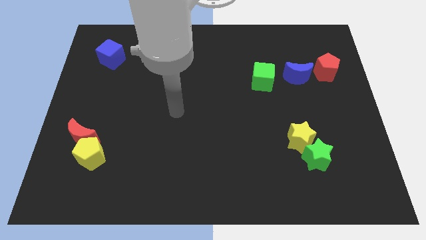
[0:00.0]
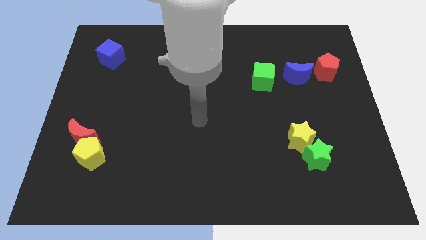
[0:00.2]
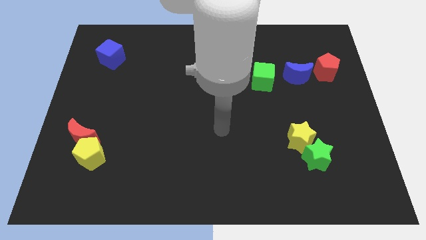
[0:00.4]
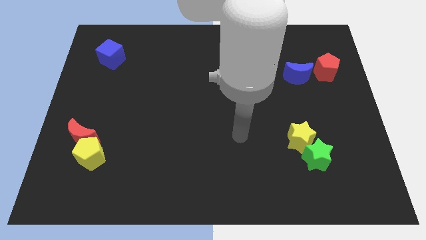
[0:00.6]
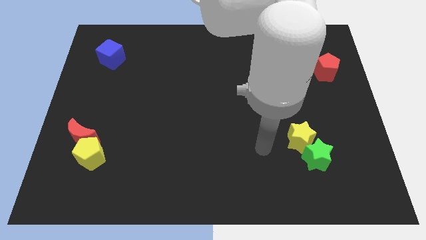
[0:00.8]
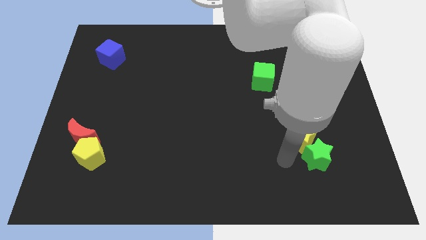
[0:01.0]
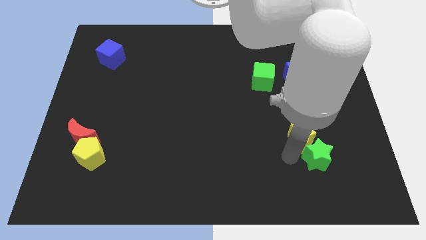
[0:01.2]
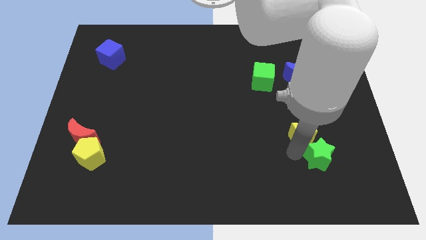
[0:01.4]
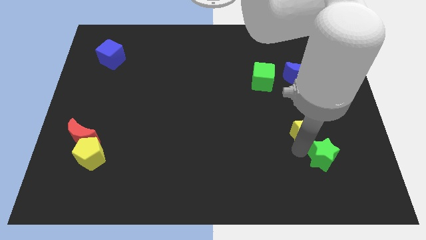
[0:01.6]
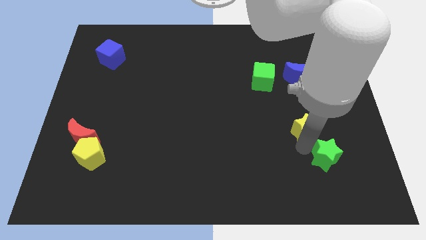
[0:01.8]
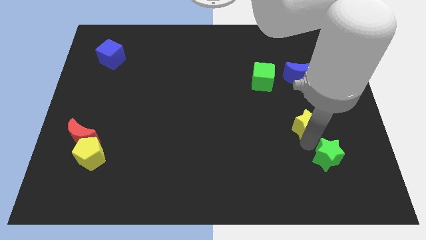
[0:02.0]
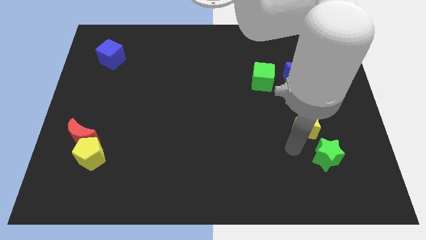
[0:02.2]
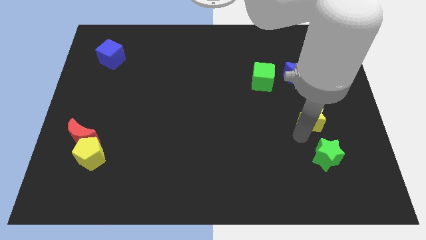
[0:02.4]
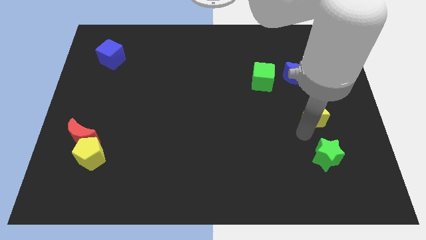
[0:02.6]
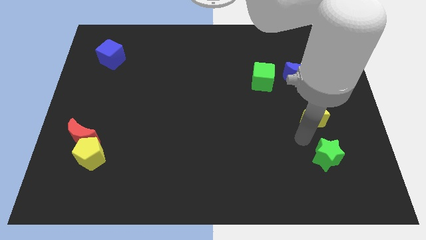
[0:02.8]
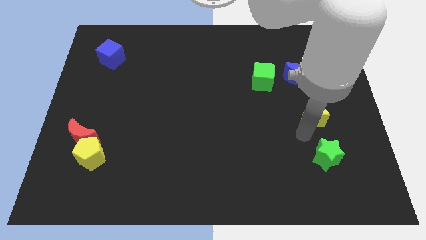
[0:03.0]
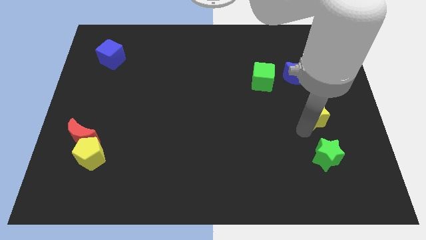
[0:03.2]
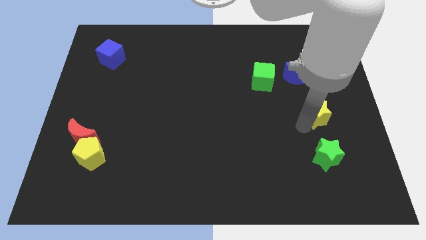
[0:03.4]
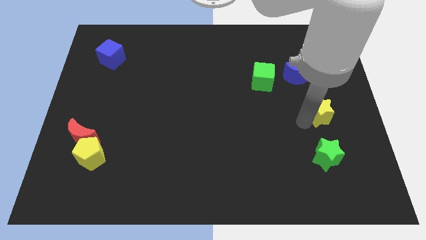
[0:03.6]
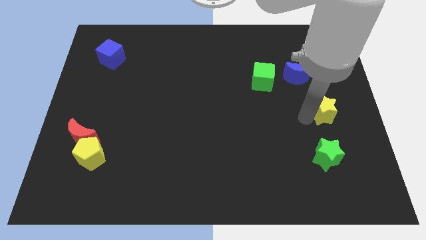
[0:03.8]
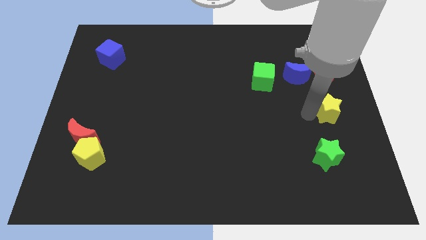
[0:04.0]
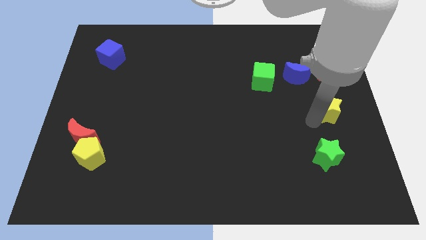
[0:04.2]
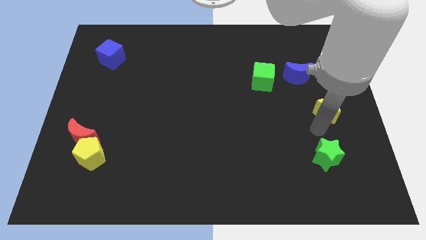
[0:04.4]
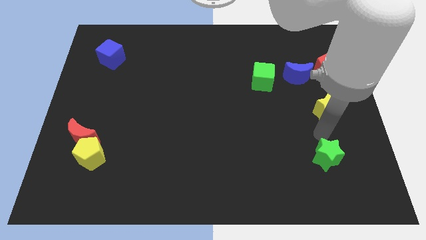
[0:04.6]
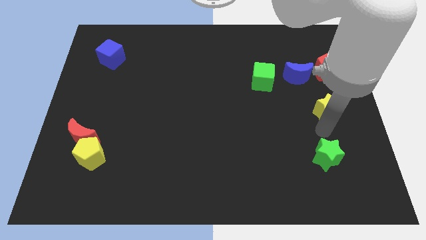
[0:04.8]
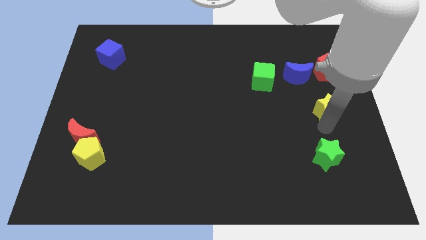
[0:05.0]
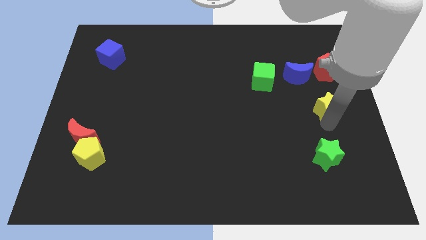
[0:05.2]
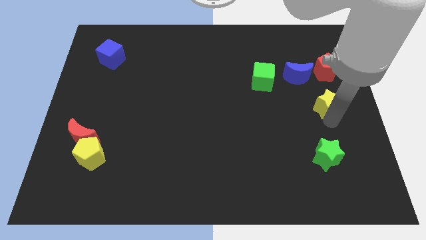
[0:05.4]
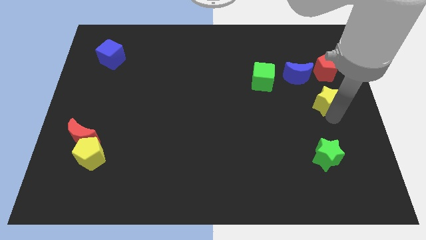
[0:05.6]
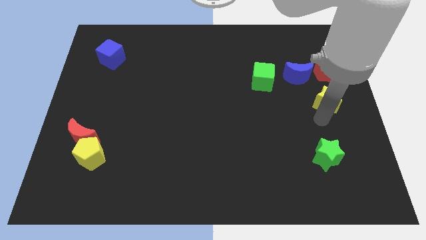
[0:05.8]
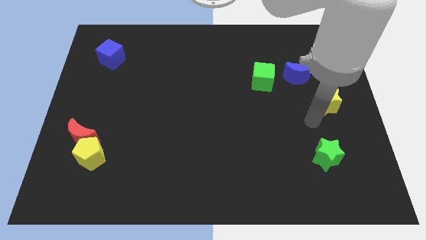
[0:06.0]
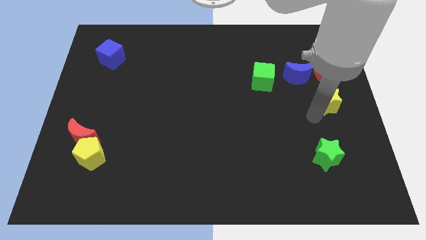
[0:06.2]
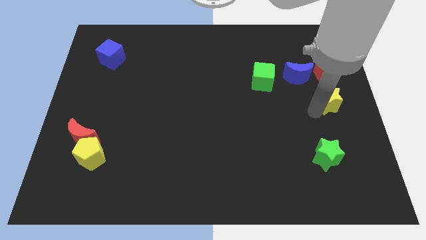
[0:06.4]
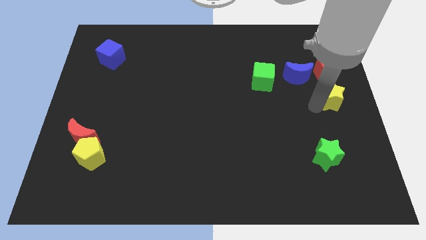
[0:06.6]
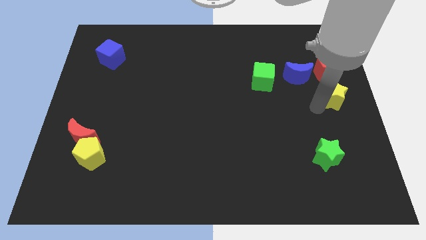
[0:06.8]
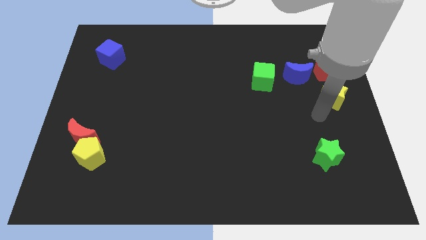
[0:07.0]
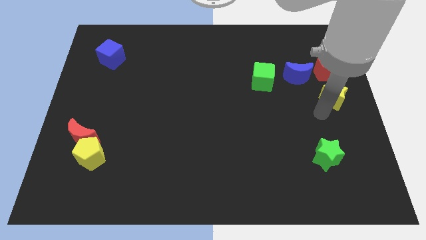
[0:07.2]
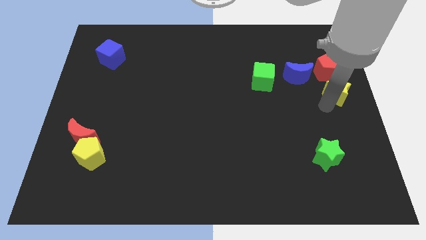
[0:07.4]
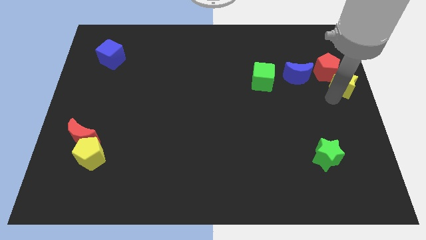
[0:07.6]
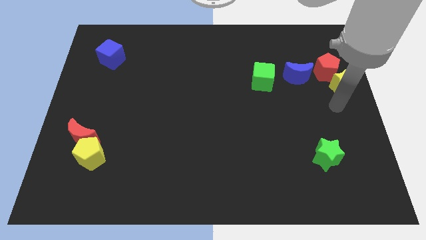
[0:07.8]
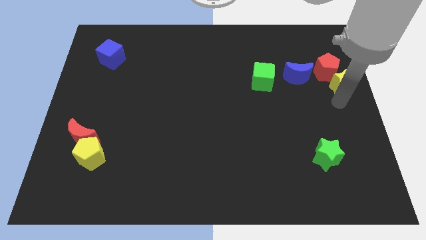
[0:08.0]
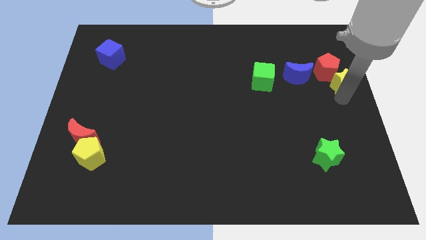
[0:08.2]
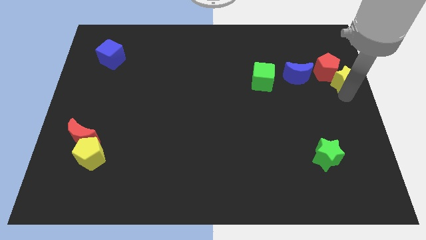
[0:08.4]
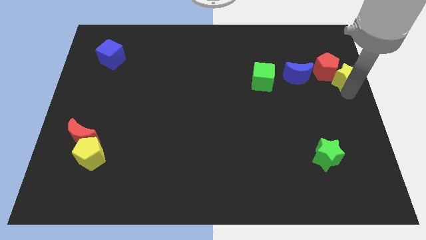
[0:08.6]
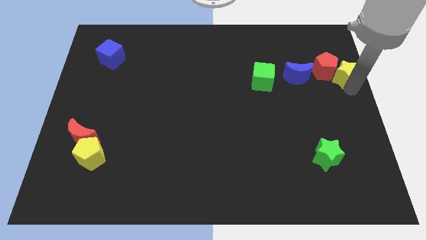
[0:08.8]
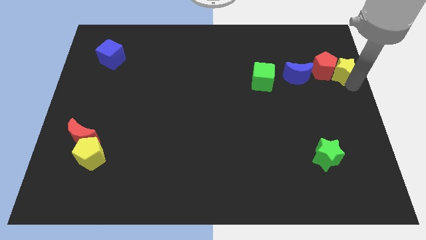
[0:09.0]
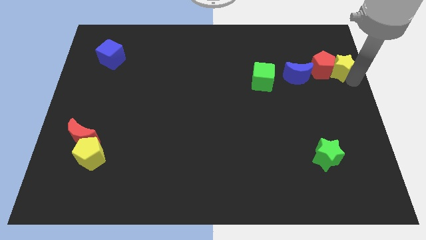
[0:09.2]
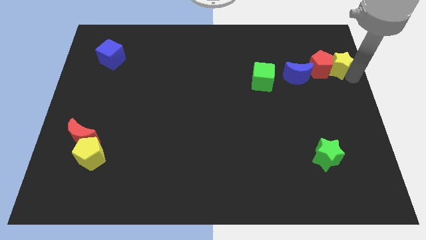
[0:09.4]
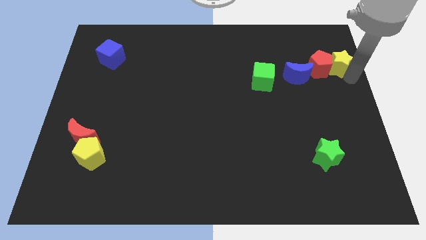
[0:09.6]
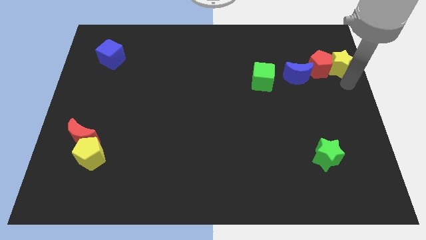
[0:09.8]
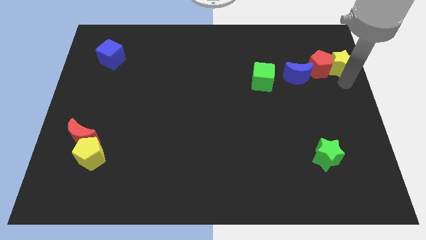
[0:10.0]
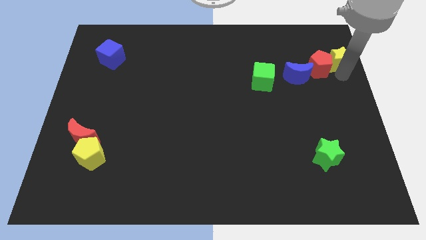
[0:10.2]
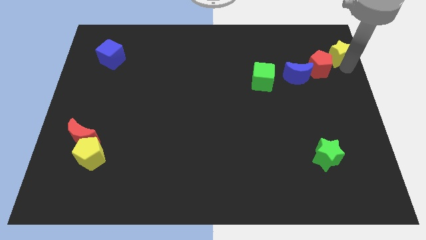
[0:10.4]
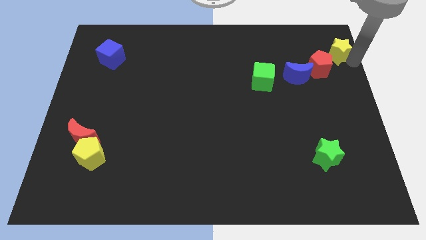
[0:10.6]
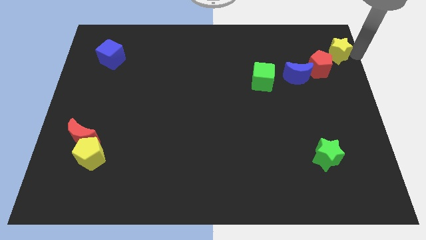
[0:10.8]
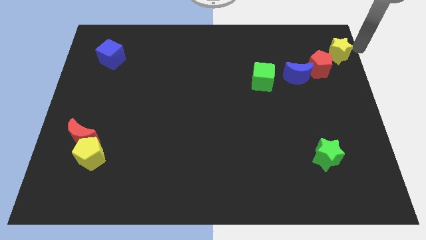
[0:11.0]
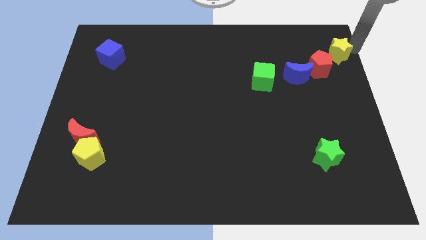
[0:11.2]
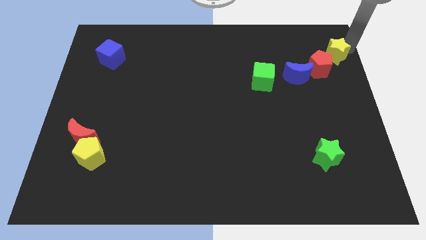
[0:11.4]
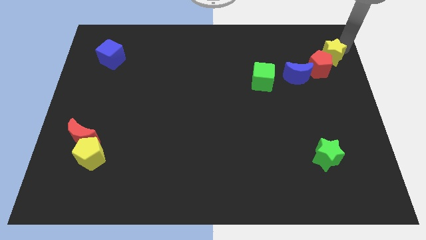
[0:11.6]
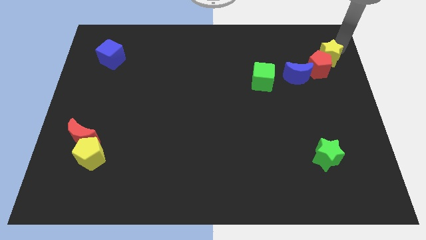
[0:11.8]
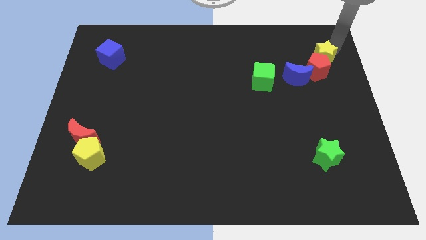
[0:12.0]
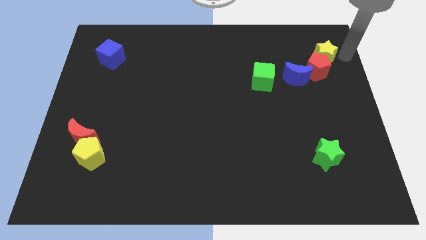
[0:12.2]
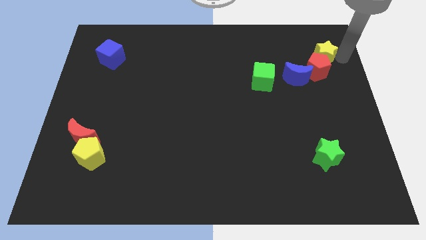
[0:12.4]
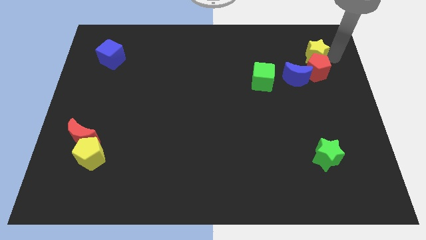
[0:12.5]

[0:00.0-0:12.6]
move the yellow star to the top left of the red pentagon

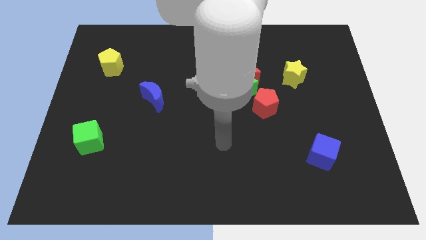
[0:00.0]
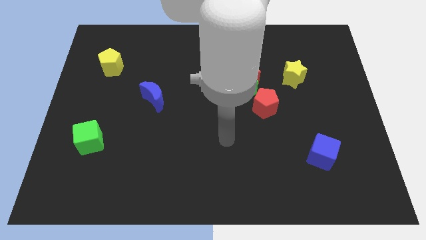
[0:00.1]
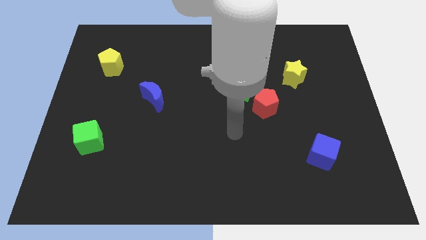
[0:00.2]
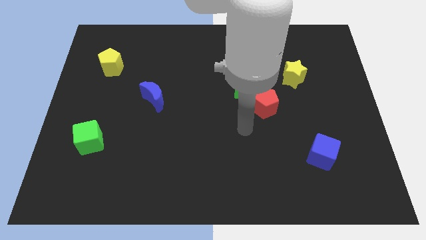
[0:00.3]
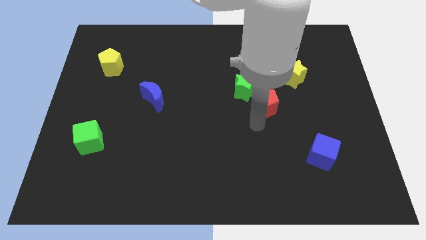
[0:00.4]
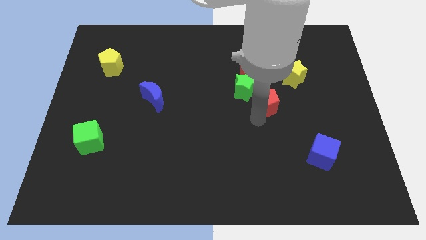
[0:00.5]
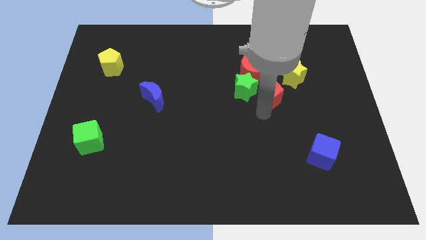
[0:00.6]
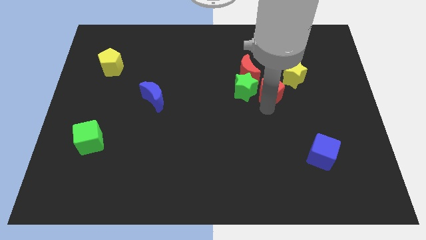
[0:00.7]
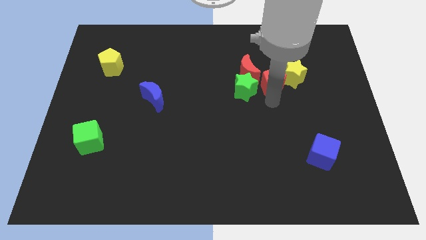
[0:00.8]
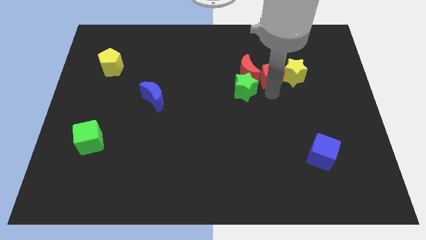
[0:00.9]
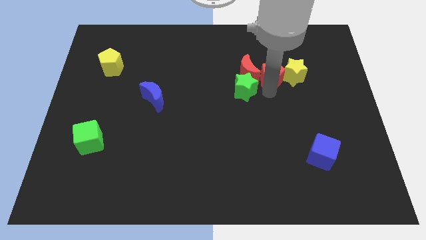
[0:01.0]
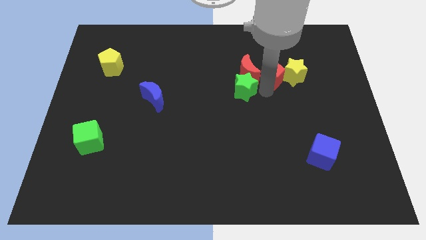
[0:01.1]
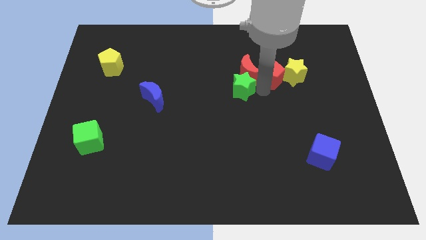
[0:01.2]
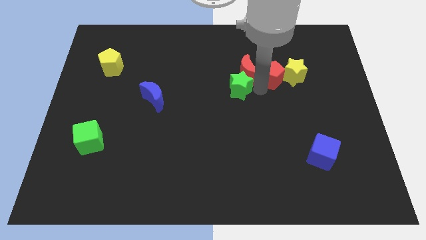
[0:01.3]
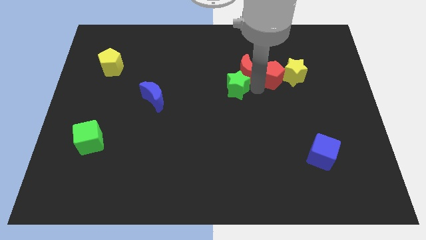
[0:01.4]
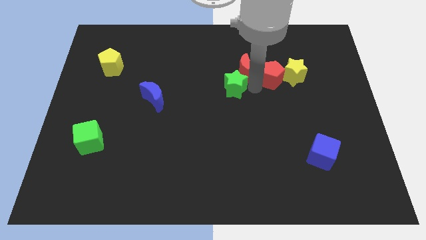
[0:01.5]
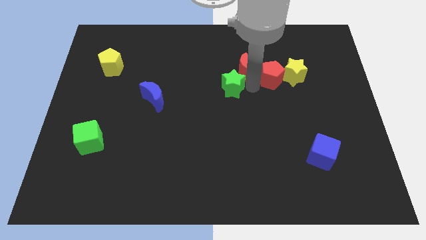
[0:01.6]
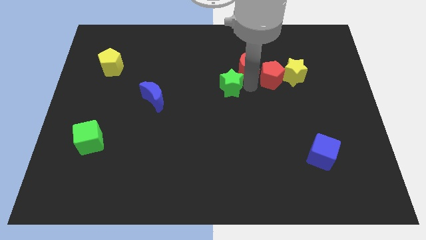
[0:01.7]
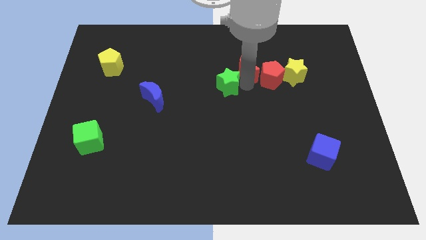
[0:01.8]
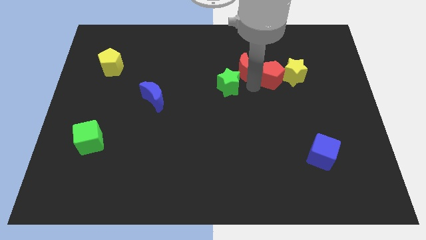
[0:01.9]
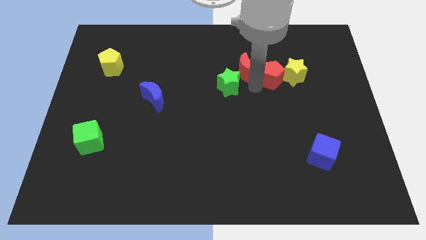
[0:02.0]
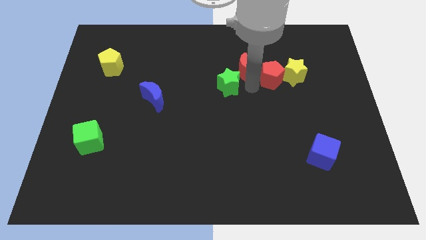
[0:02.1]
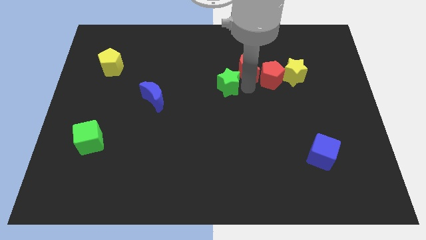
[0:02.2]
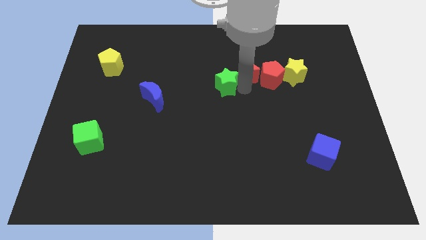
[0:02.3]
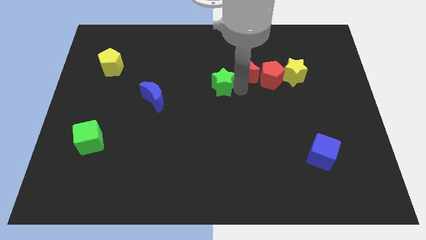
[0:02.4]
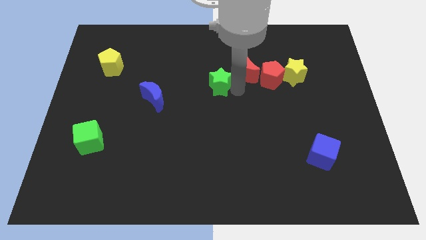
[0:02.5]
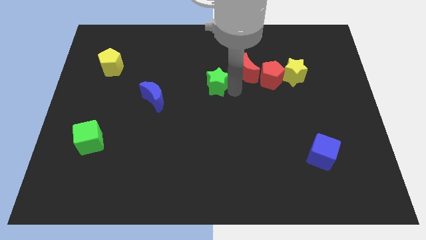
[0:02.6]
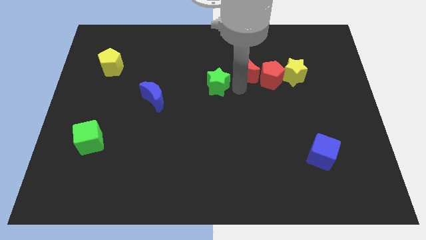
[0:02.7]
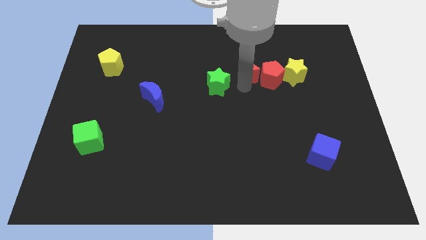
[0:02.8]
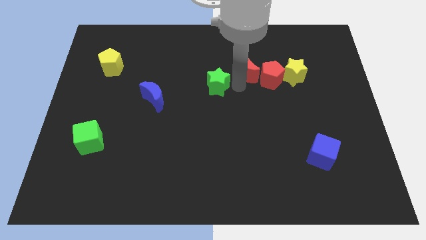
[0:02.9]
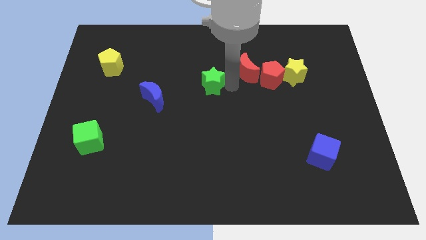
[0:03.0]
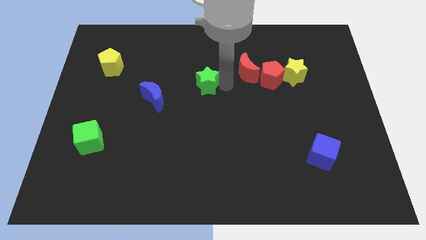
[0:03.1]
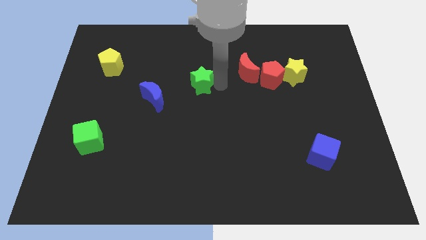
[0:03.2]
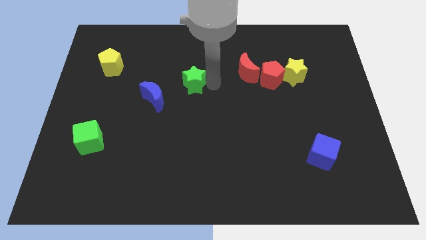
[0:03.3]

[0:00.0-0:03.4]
put the green star diagonally up and to the right of the blue moon
